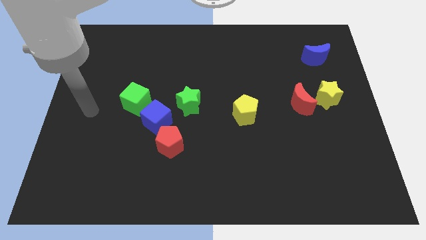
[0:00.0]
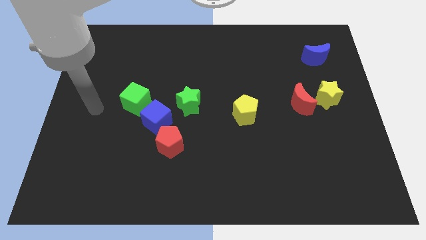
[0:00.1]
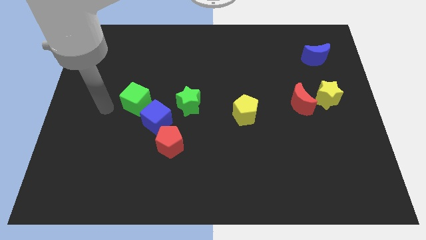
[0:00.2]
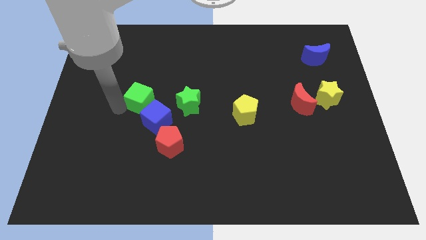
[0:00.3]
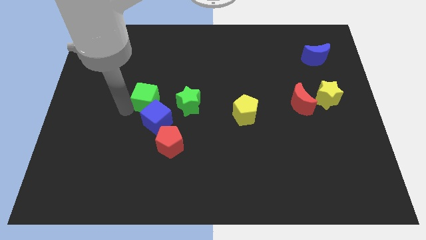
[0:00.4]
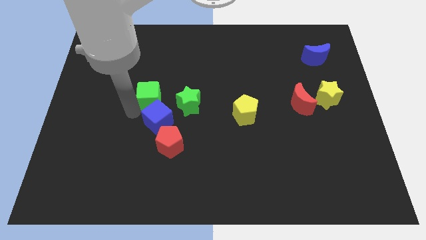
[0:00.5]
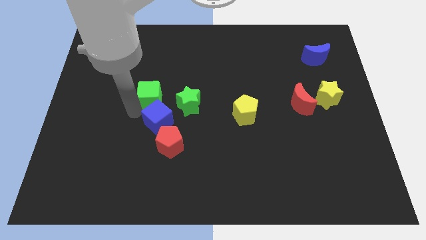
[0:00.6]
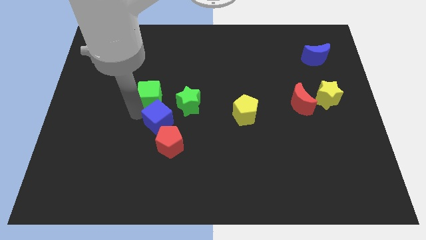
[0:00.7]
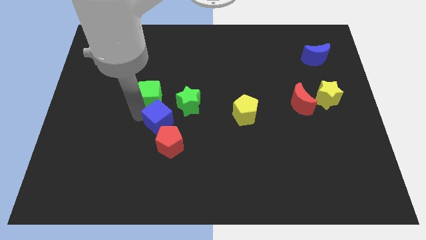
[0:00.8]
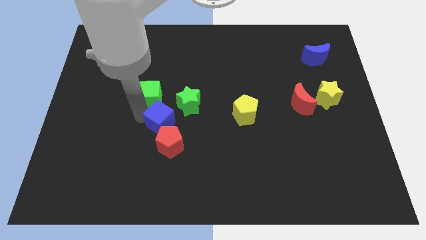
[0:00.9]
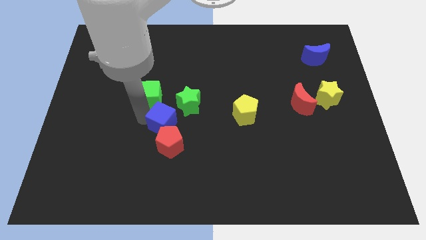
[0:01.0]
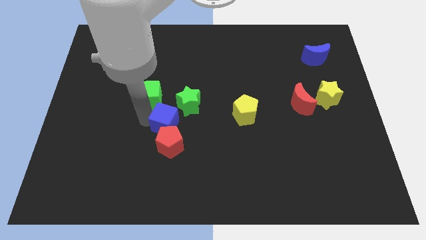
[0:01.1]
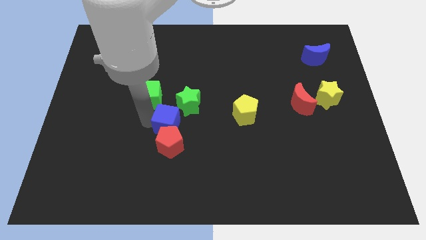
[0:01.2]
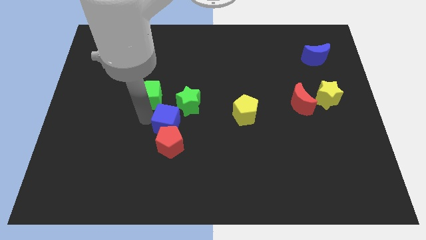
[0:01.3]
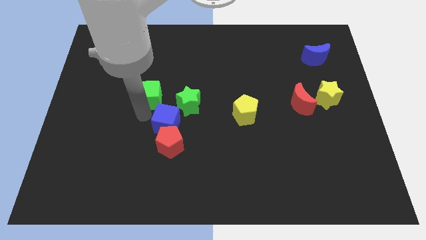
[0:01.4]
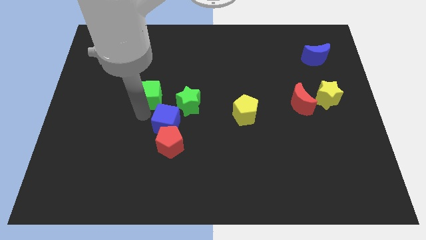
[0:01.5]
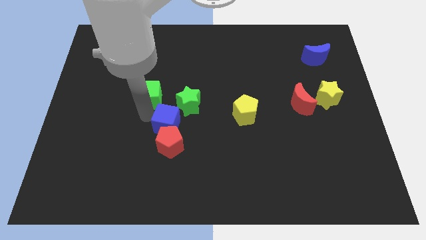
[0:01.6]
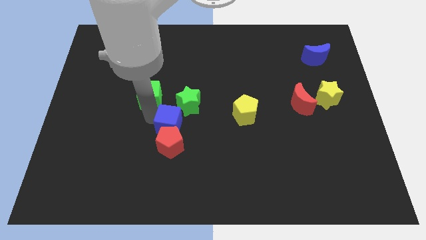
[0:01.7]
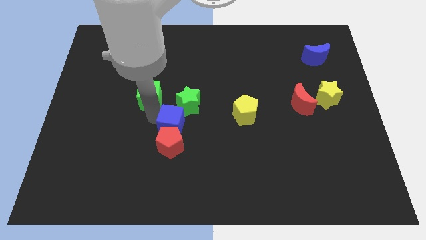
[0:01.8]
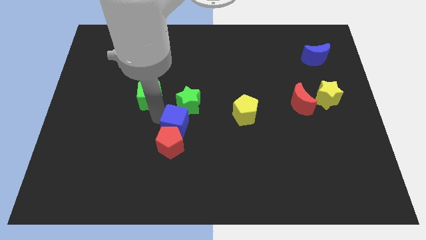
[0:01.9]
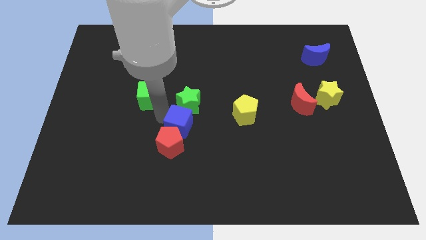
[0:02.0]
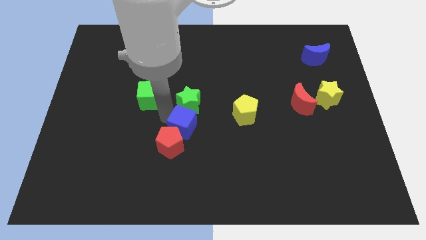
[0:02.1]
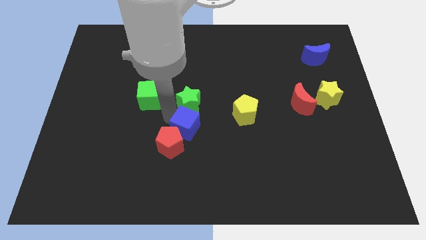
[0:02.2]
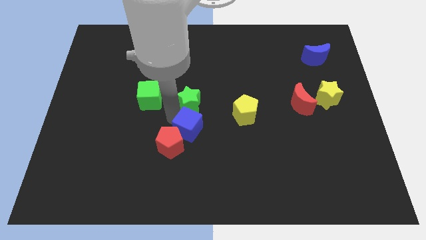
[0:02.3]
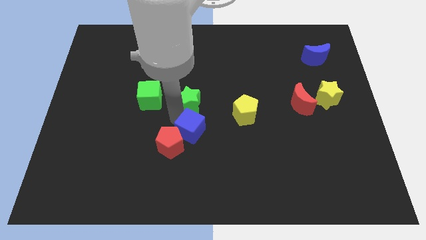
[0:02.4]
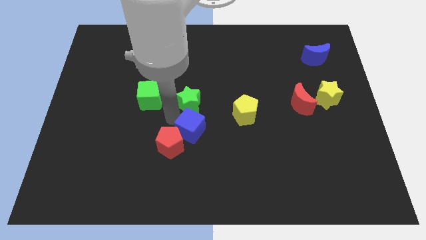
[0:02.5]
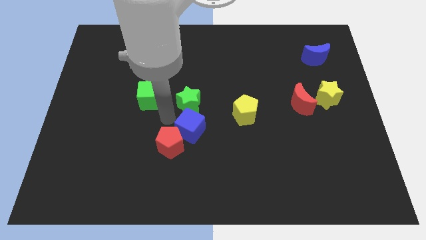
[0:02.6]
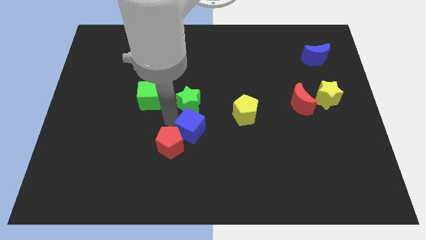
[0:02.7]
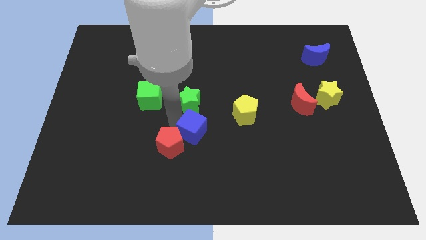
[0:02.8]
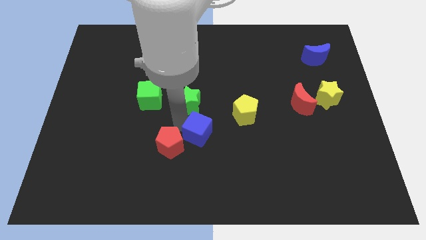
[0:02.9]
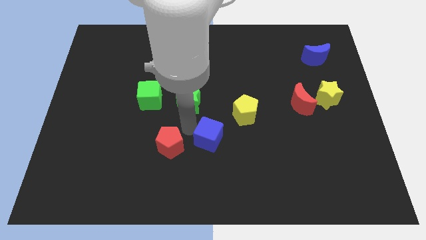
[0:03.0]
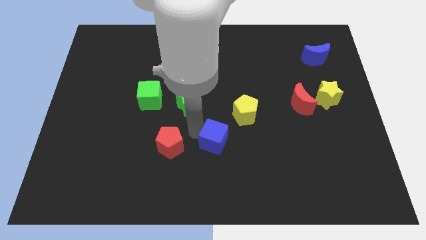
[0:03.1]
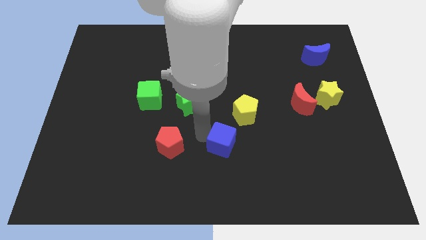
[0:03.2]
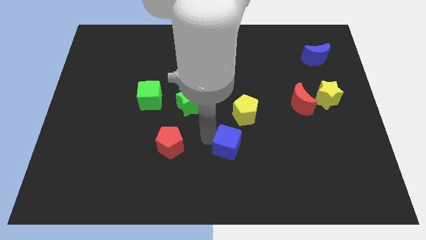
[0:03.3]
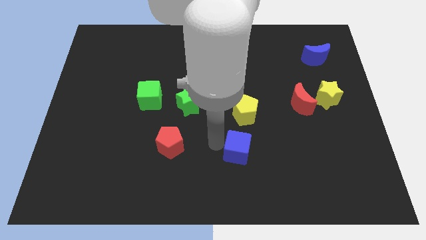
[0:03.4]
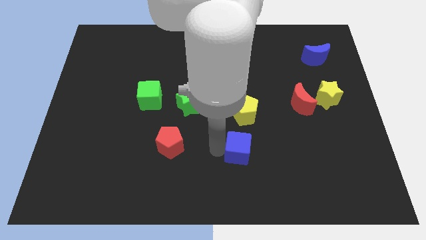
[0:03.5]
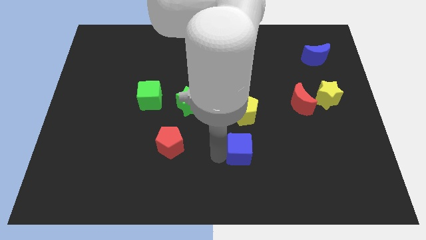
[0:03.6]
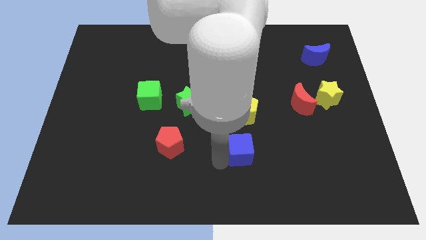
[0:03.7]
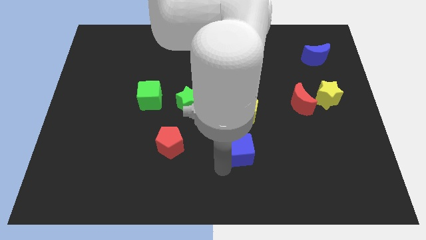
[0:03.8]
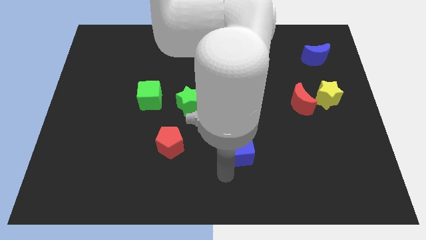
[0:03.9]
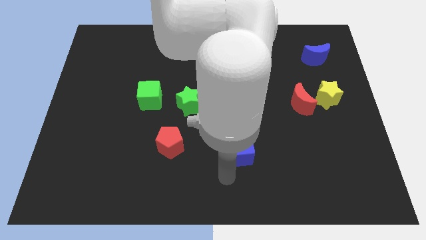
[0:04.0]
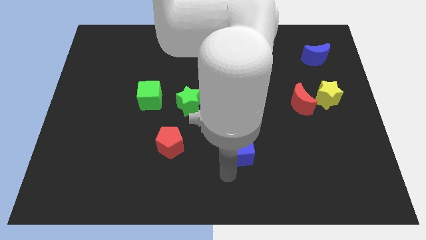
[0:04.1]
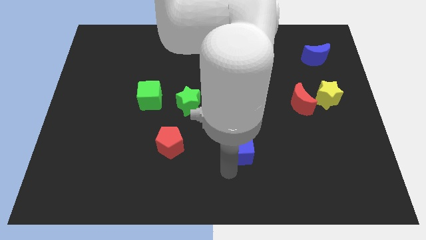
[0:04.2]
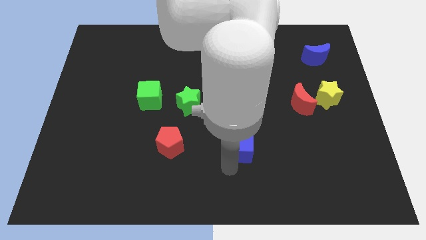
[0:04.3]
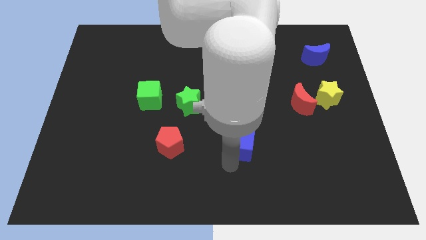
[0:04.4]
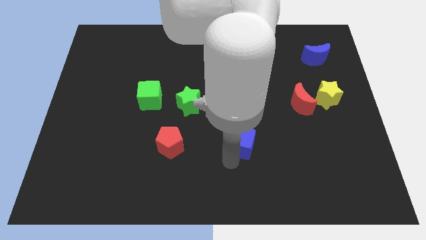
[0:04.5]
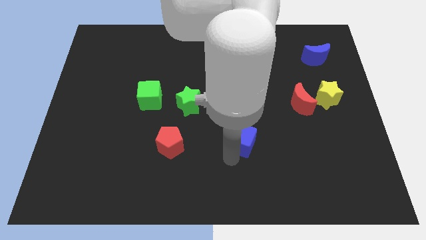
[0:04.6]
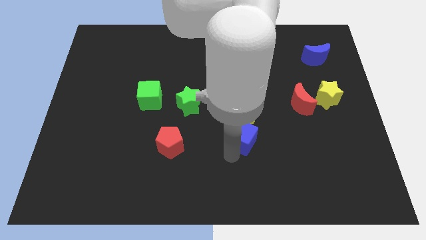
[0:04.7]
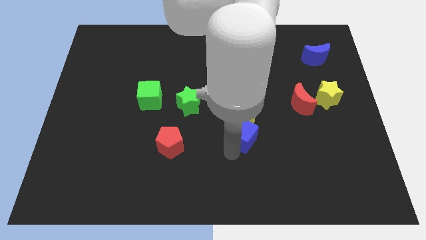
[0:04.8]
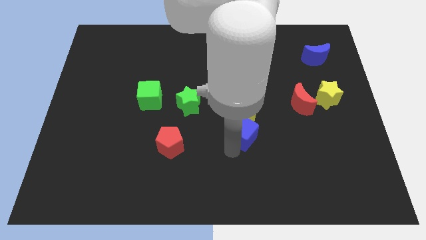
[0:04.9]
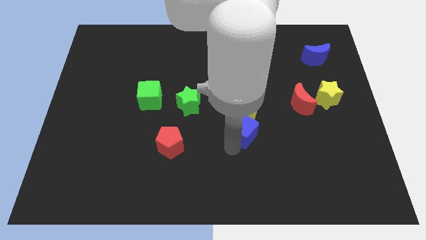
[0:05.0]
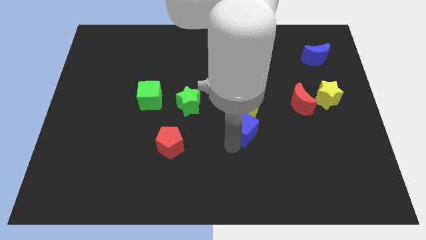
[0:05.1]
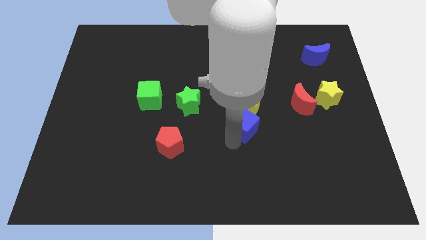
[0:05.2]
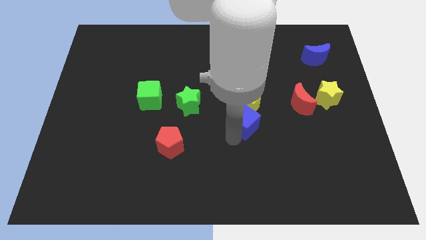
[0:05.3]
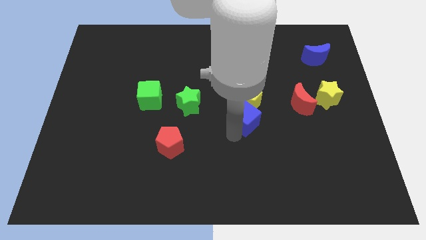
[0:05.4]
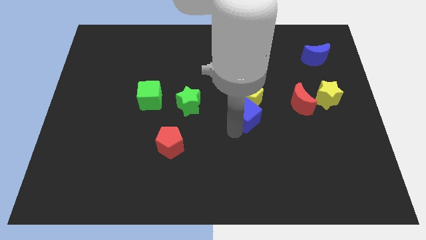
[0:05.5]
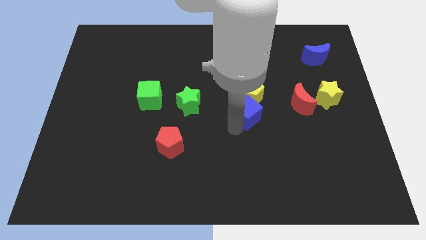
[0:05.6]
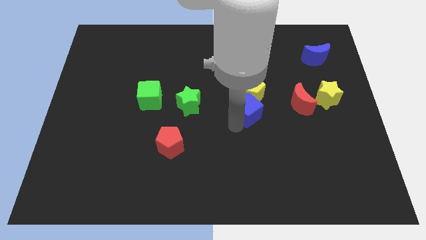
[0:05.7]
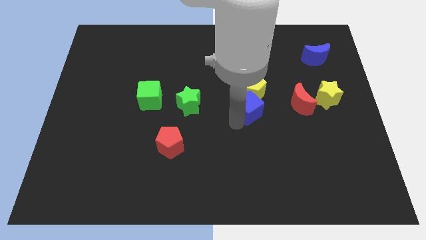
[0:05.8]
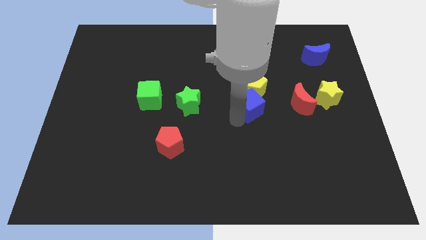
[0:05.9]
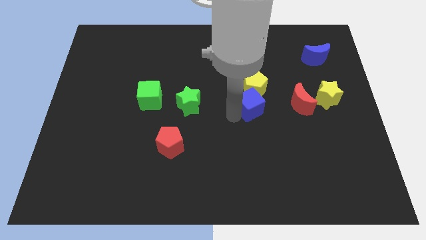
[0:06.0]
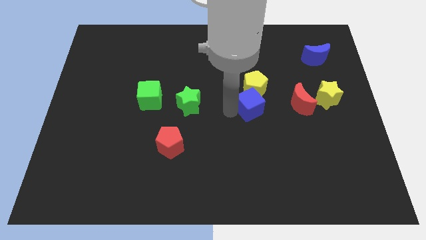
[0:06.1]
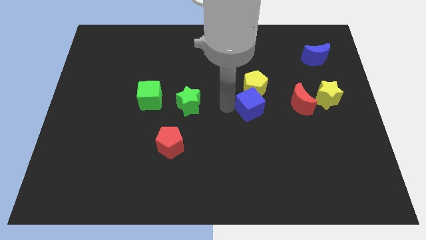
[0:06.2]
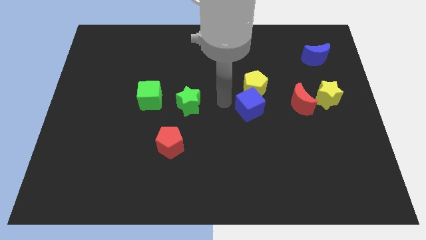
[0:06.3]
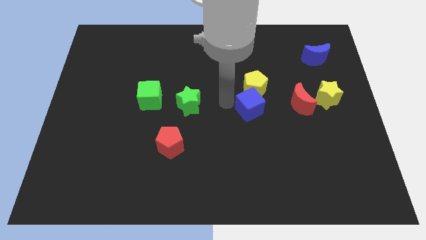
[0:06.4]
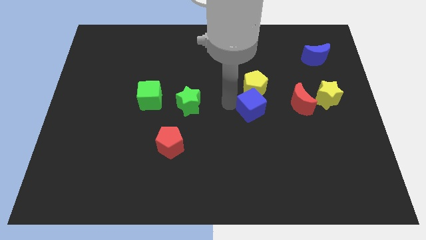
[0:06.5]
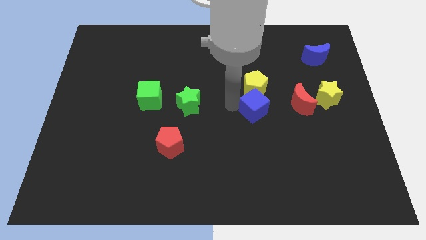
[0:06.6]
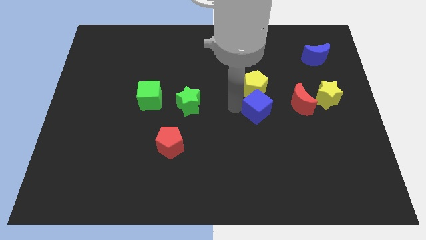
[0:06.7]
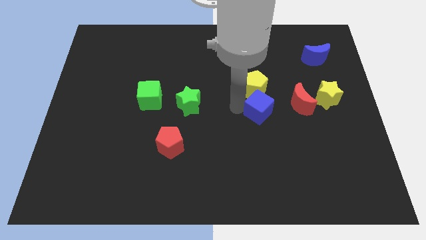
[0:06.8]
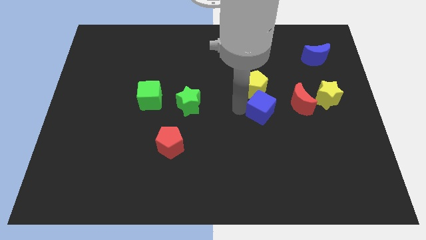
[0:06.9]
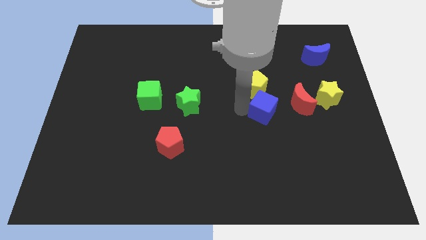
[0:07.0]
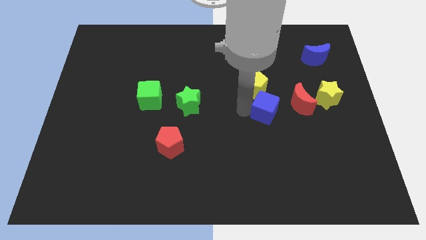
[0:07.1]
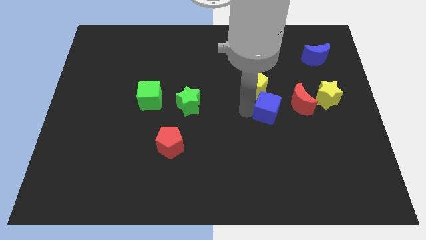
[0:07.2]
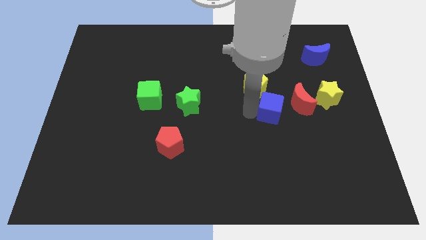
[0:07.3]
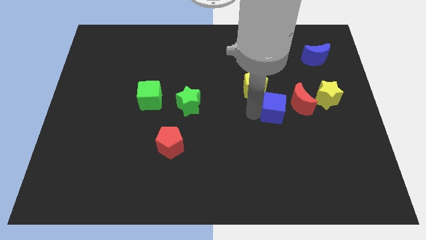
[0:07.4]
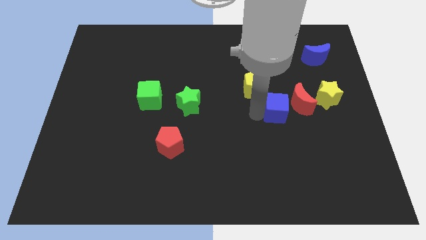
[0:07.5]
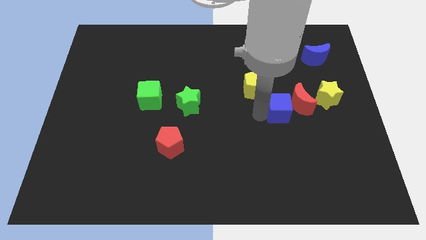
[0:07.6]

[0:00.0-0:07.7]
slide the blue cube next to the red moon
